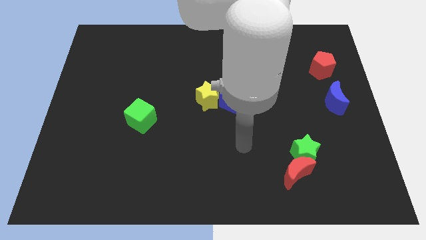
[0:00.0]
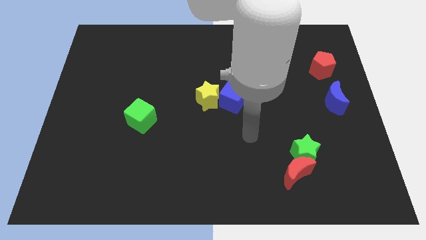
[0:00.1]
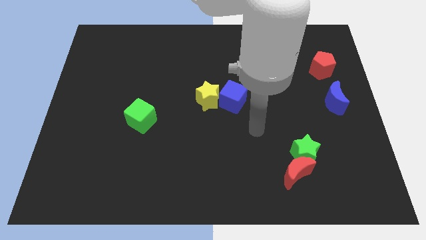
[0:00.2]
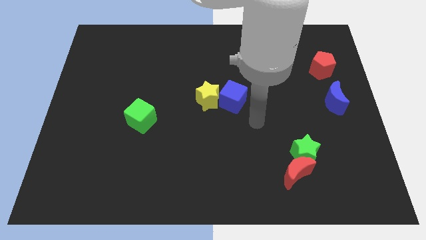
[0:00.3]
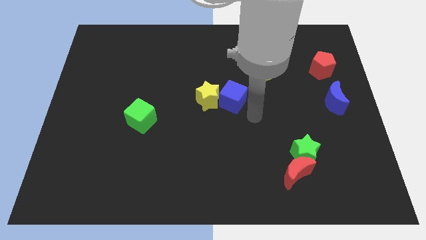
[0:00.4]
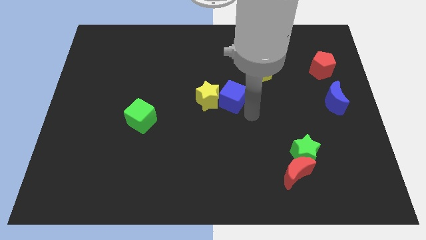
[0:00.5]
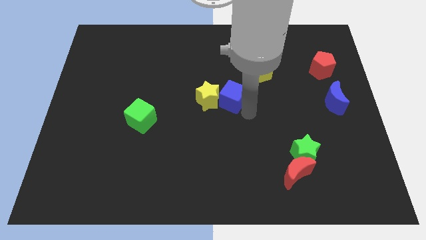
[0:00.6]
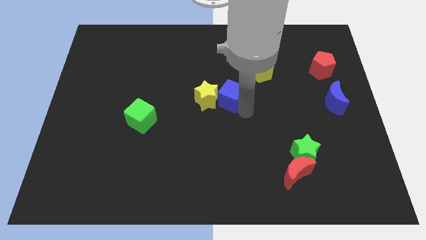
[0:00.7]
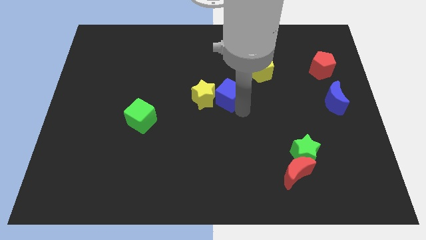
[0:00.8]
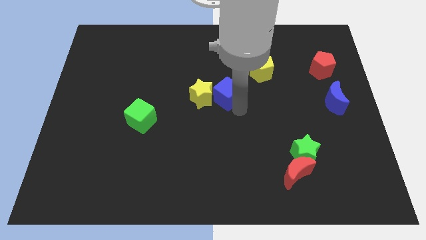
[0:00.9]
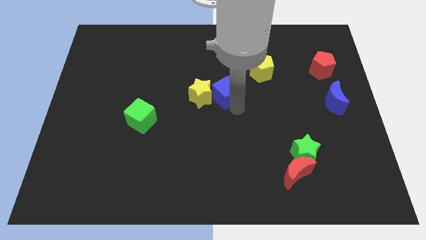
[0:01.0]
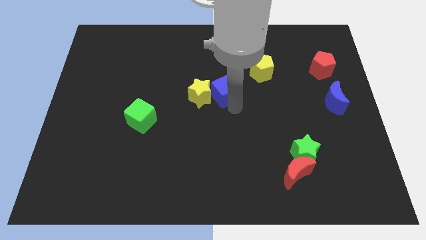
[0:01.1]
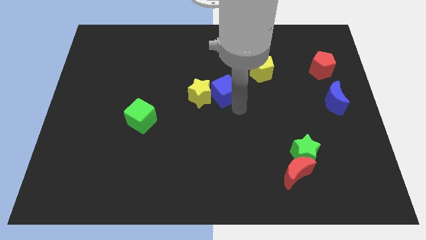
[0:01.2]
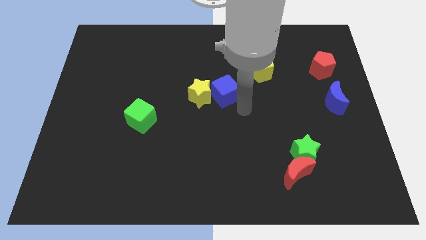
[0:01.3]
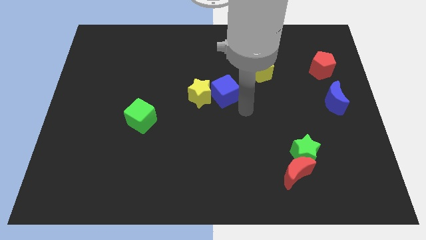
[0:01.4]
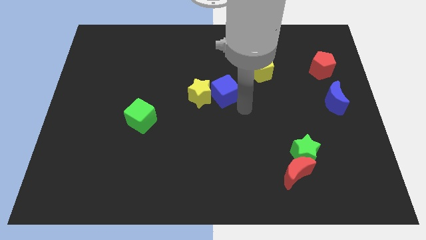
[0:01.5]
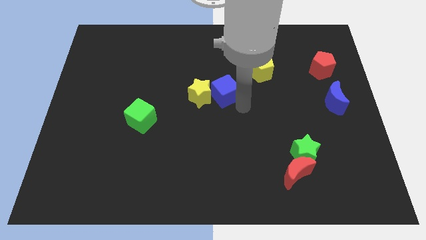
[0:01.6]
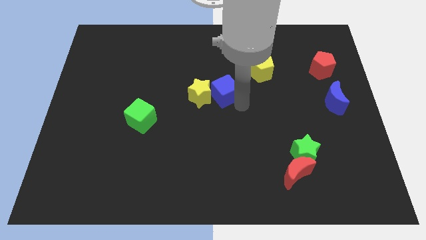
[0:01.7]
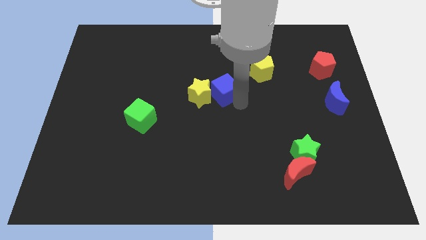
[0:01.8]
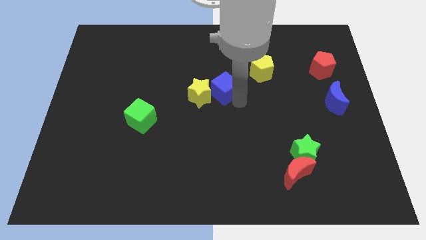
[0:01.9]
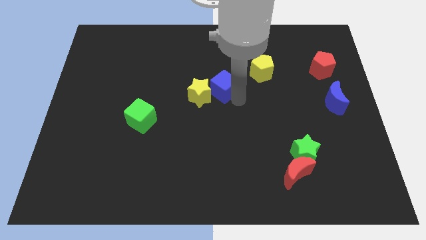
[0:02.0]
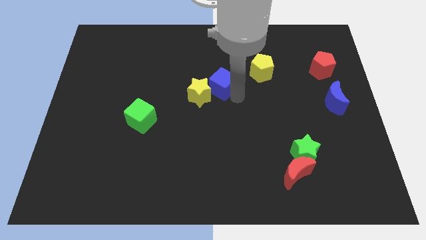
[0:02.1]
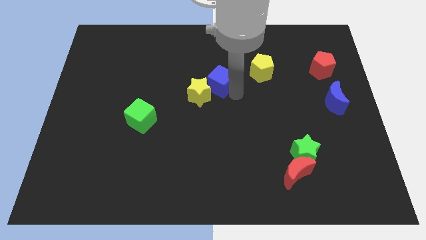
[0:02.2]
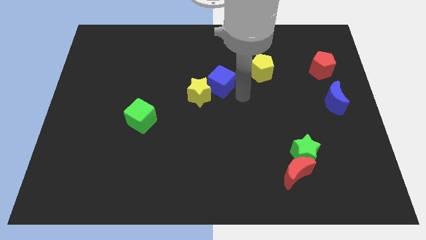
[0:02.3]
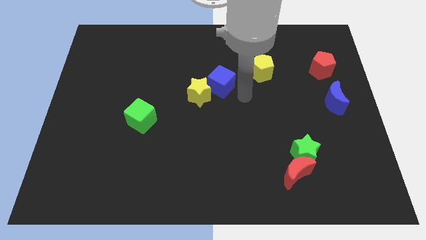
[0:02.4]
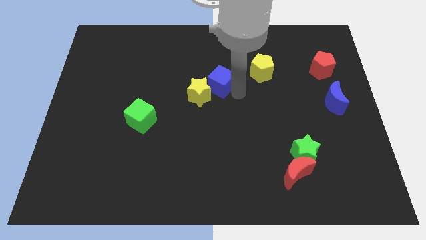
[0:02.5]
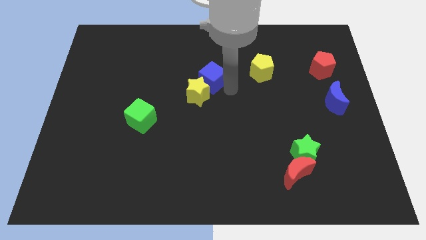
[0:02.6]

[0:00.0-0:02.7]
push the blue cube up and to the left somewhat

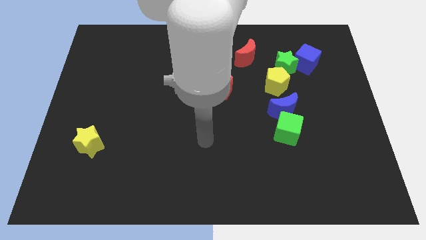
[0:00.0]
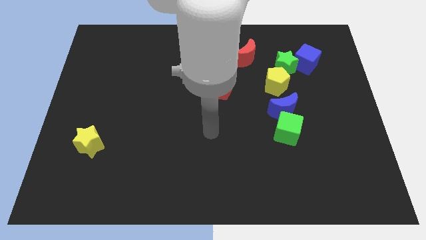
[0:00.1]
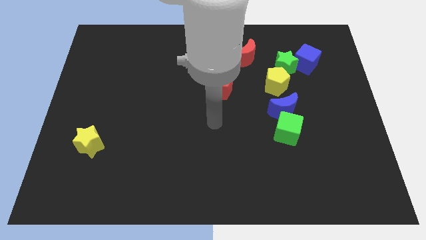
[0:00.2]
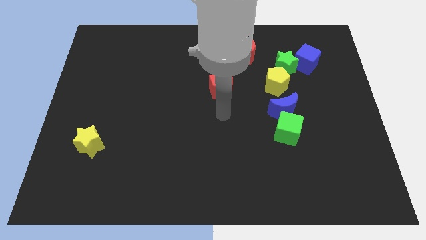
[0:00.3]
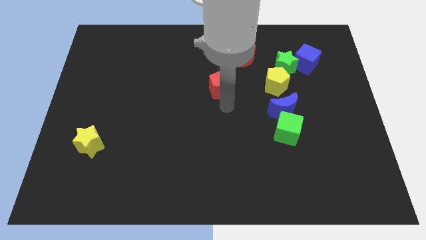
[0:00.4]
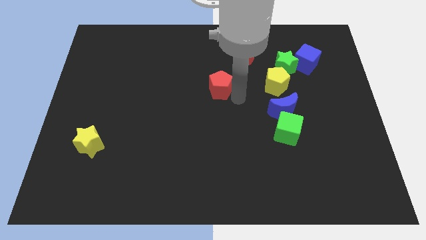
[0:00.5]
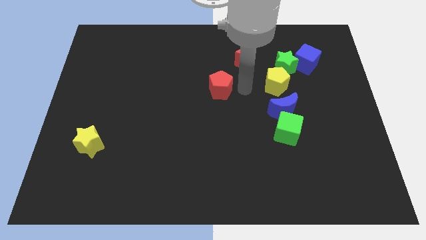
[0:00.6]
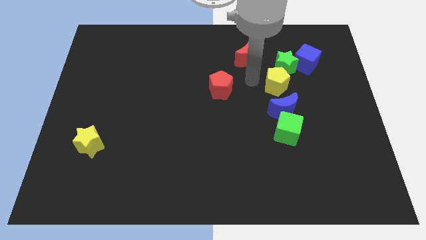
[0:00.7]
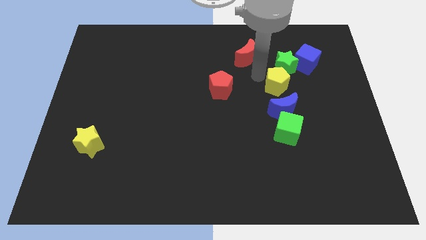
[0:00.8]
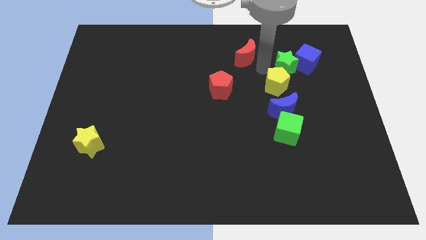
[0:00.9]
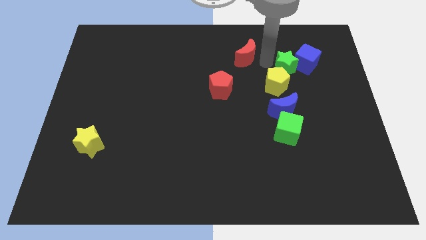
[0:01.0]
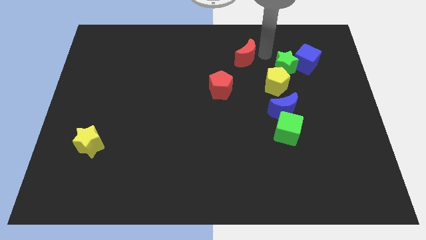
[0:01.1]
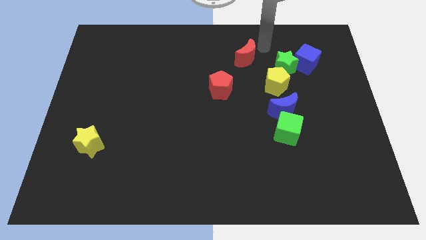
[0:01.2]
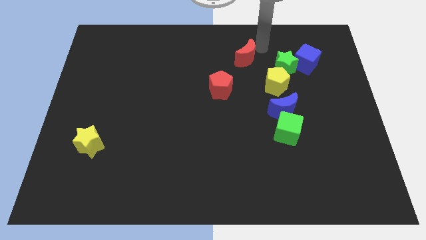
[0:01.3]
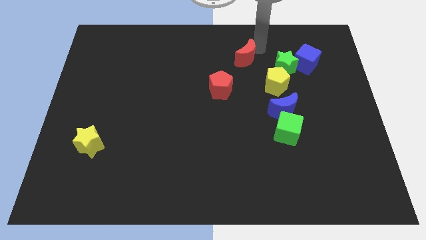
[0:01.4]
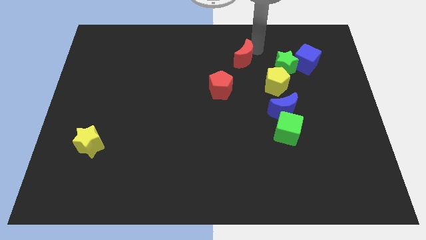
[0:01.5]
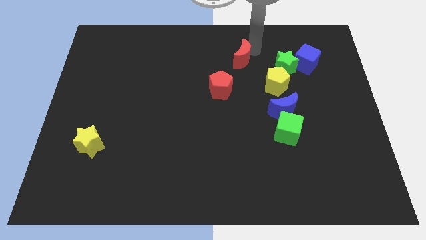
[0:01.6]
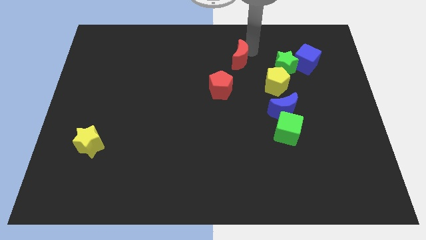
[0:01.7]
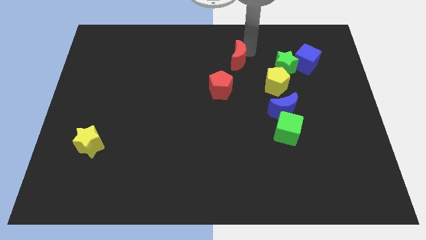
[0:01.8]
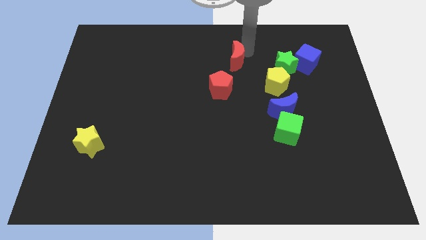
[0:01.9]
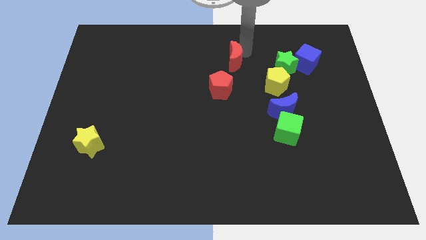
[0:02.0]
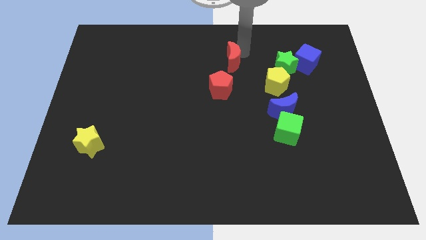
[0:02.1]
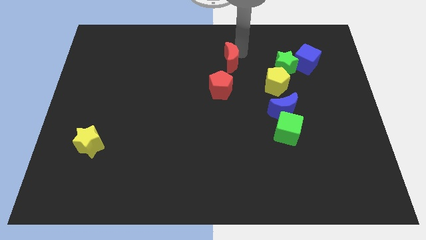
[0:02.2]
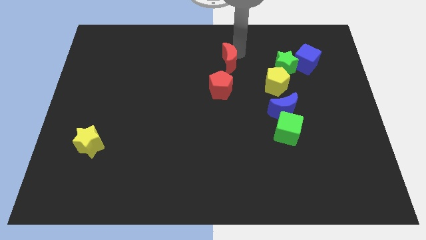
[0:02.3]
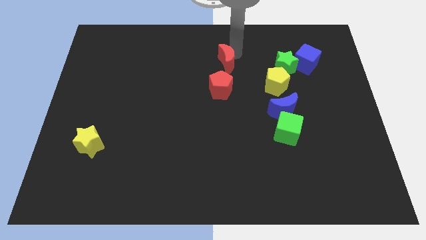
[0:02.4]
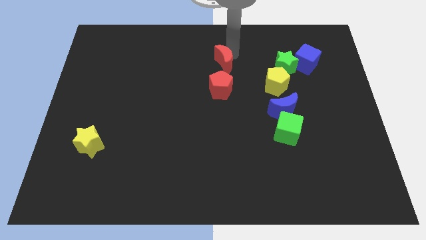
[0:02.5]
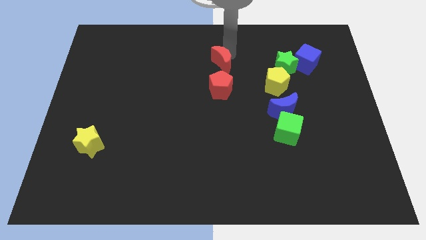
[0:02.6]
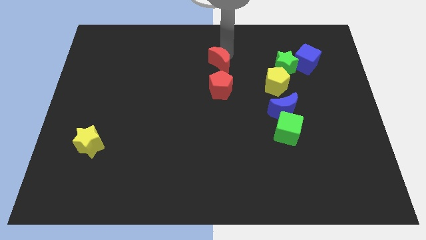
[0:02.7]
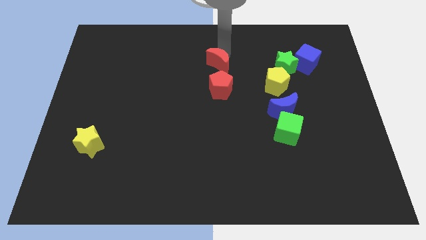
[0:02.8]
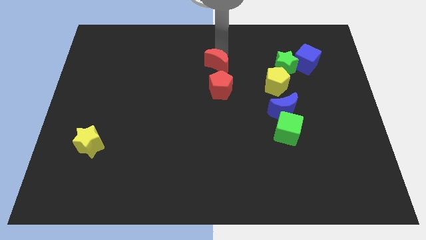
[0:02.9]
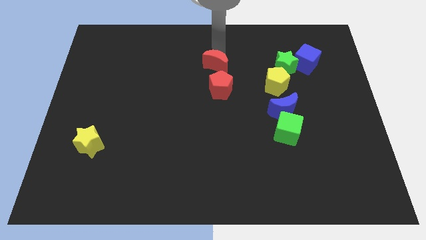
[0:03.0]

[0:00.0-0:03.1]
push the red moon a little down and to the left

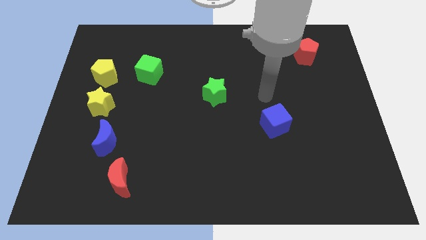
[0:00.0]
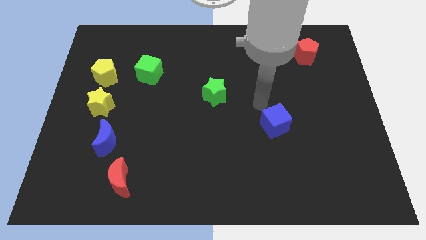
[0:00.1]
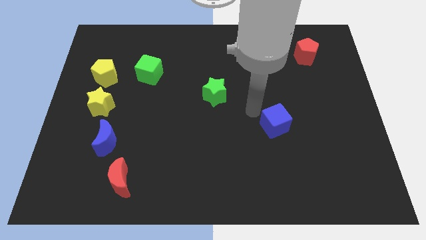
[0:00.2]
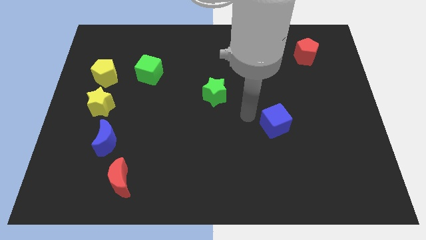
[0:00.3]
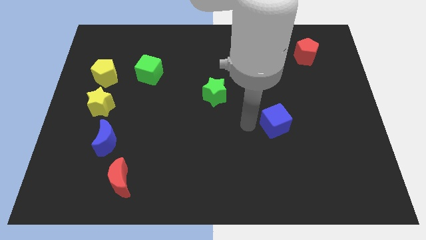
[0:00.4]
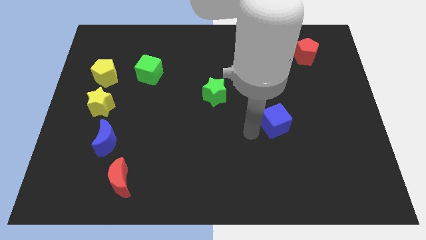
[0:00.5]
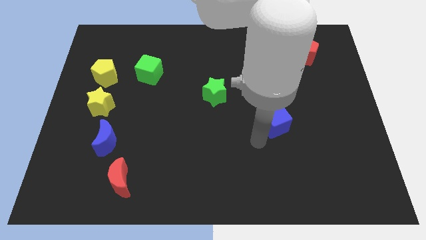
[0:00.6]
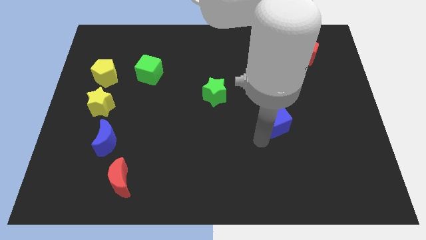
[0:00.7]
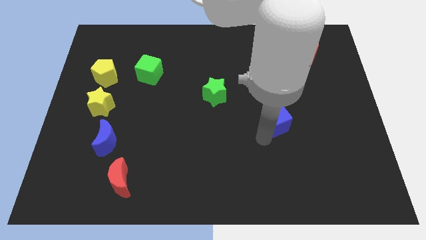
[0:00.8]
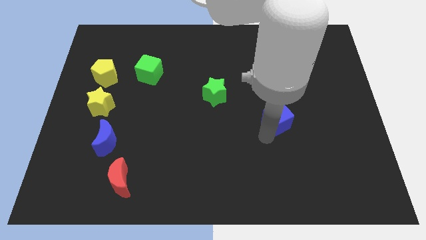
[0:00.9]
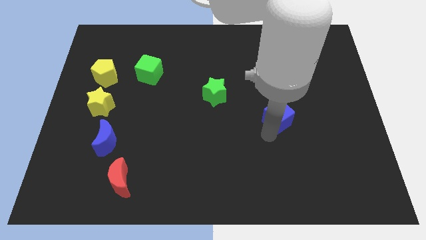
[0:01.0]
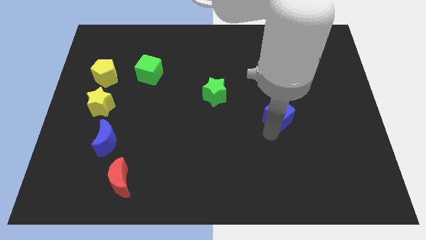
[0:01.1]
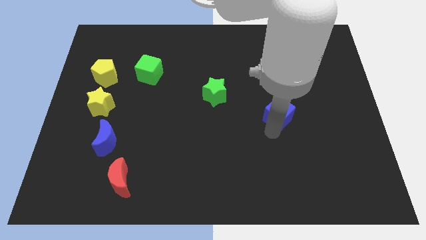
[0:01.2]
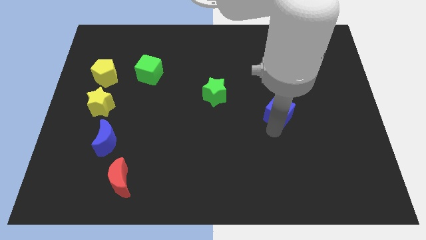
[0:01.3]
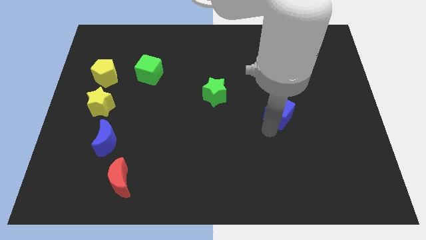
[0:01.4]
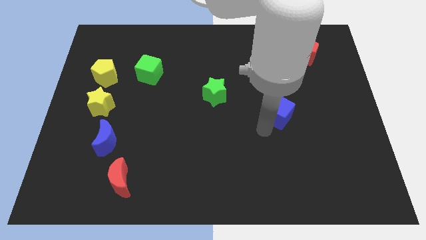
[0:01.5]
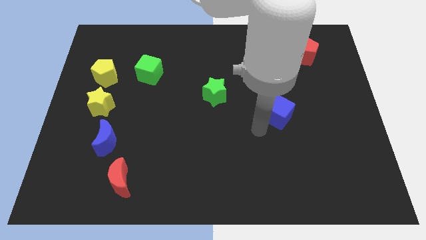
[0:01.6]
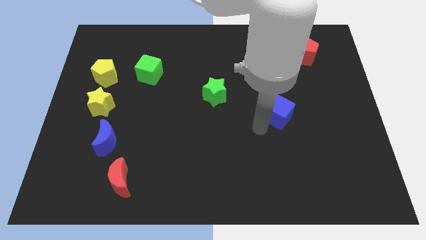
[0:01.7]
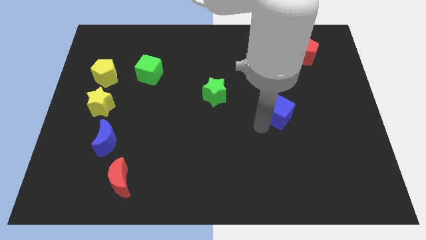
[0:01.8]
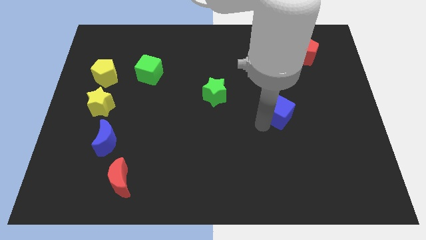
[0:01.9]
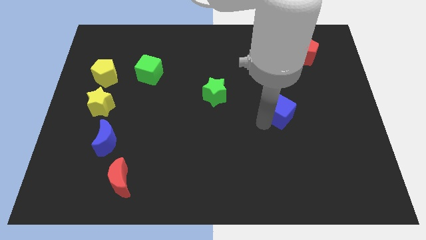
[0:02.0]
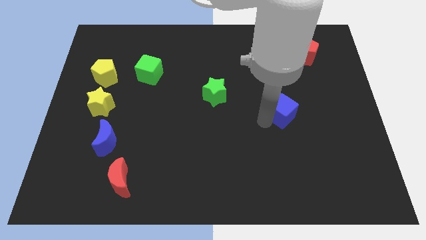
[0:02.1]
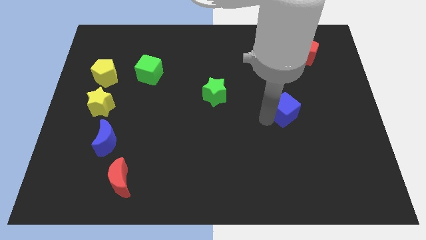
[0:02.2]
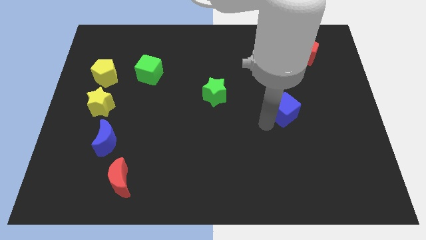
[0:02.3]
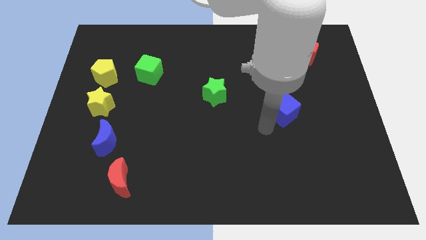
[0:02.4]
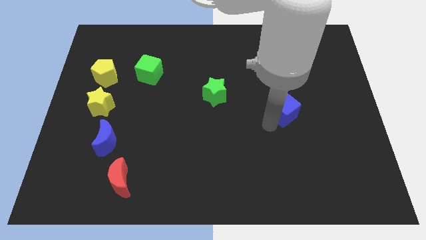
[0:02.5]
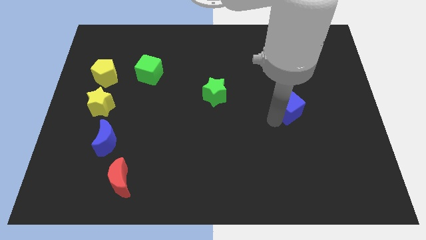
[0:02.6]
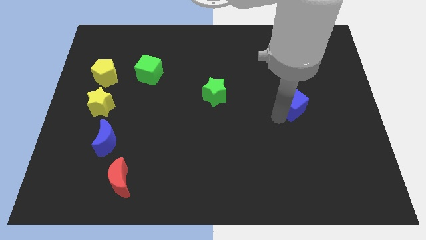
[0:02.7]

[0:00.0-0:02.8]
move the blue cube upwards and right a little bit
